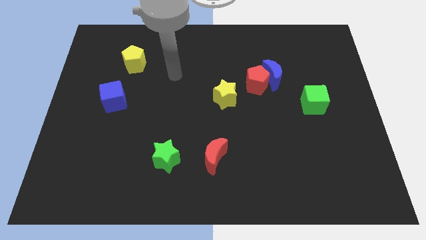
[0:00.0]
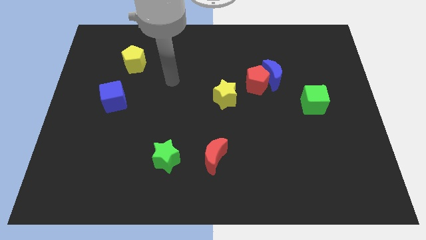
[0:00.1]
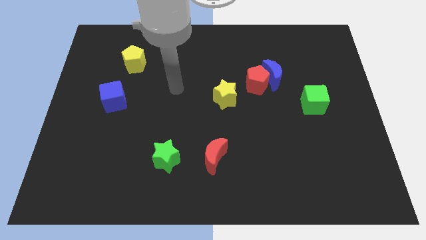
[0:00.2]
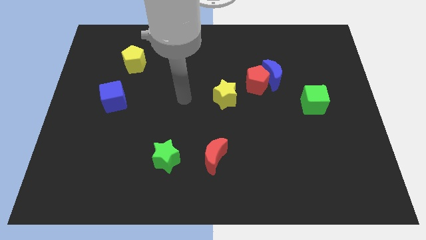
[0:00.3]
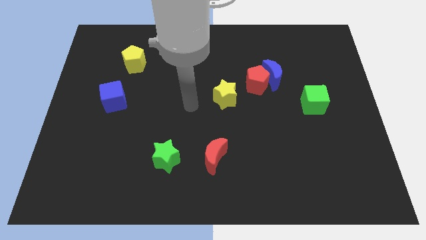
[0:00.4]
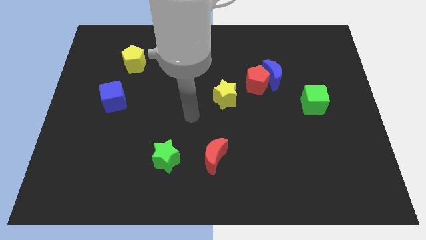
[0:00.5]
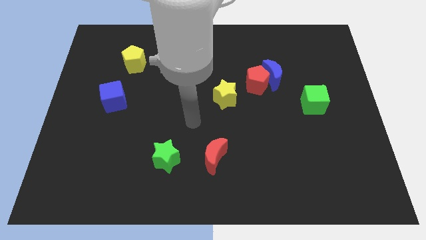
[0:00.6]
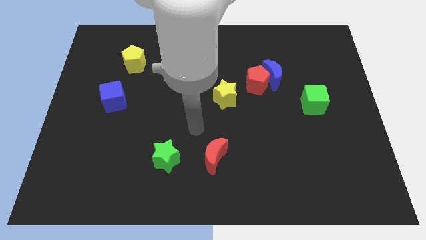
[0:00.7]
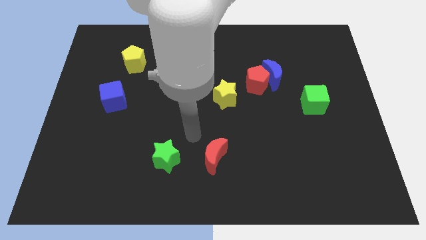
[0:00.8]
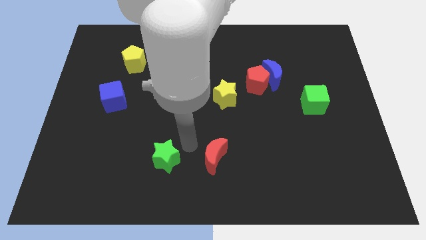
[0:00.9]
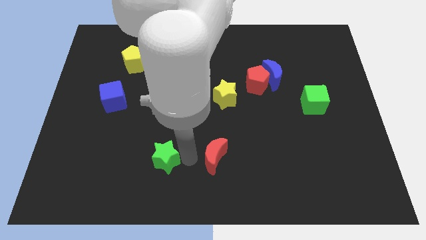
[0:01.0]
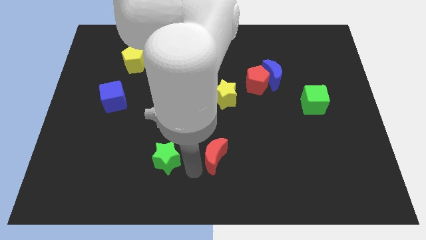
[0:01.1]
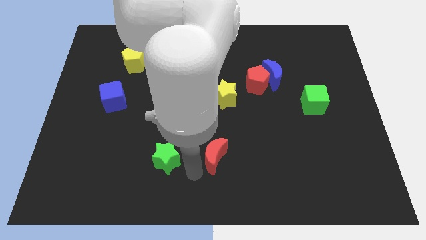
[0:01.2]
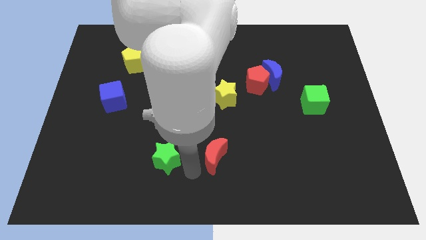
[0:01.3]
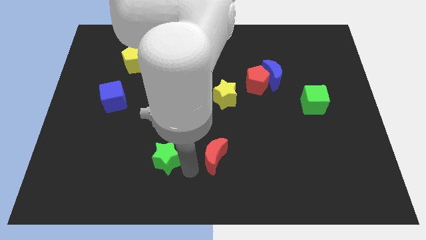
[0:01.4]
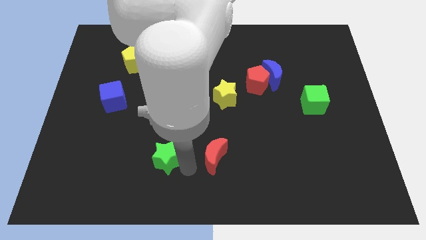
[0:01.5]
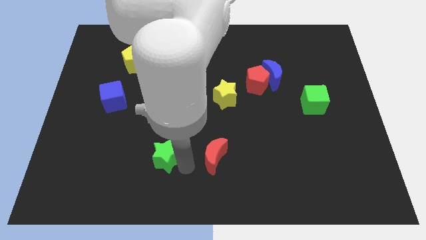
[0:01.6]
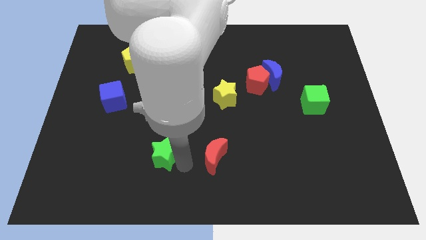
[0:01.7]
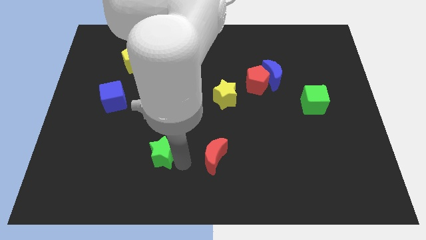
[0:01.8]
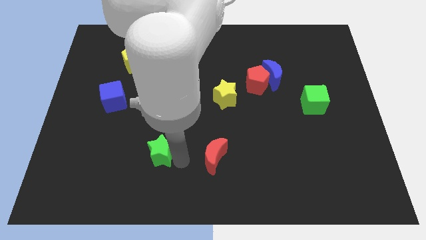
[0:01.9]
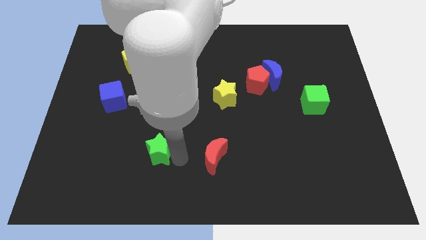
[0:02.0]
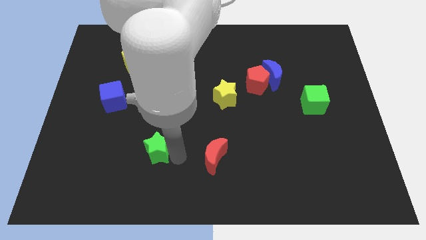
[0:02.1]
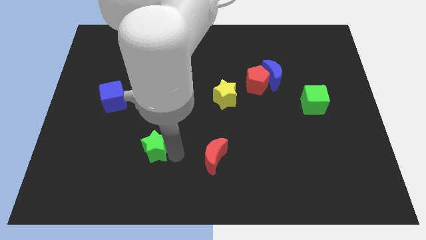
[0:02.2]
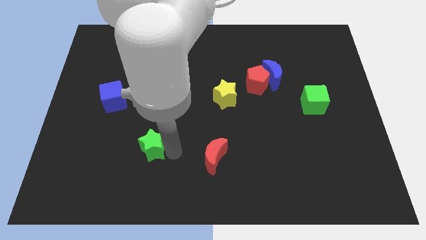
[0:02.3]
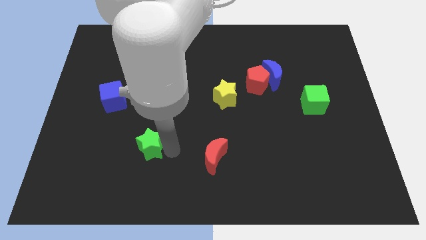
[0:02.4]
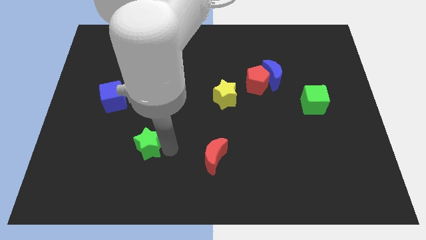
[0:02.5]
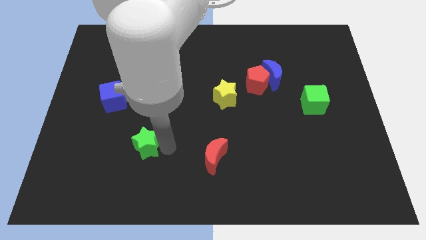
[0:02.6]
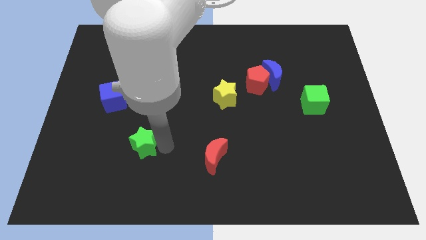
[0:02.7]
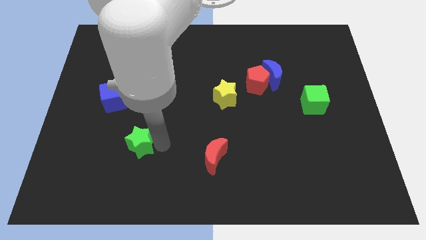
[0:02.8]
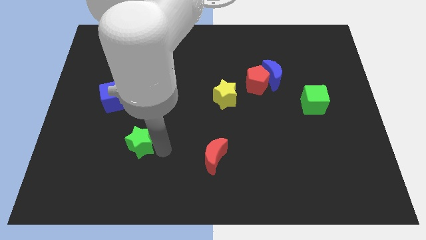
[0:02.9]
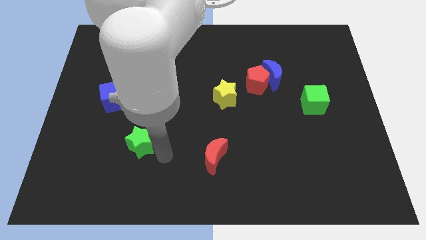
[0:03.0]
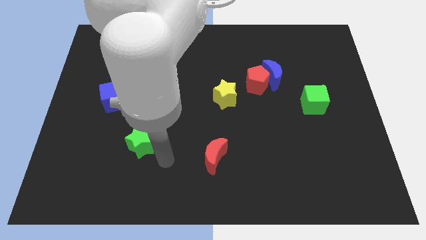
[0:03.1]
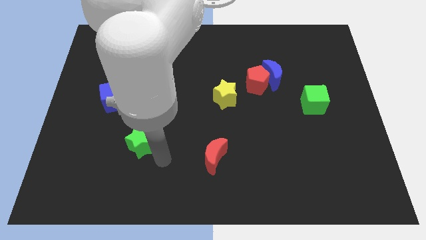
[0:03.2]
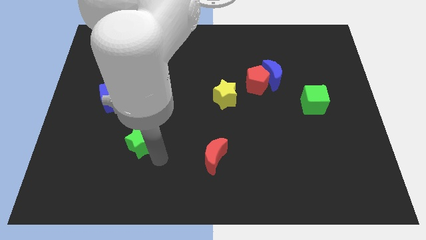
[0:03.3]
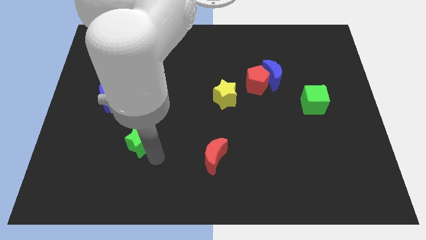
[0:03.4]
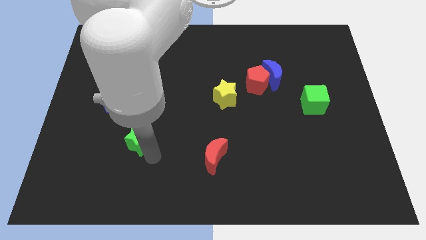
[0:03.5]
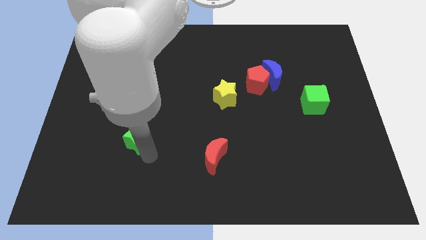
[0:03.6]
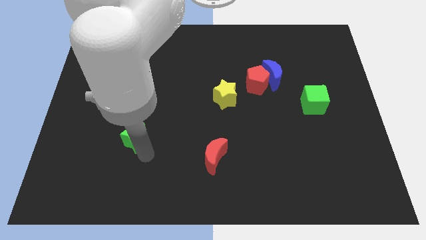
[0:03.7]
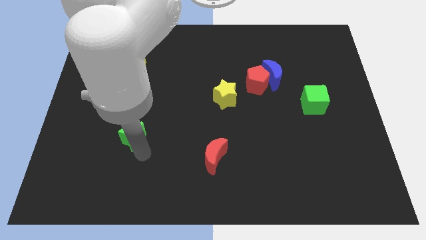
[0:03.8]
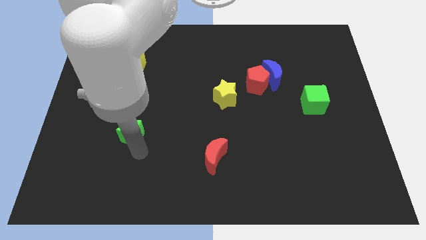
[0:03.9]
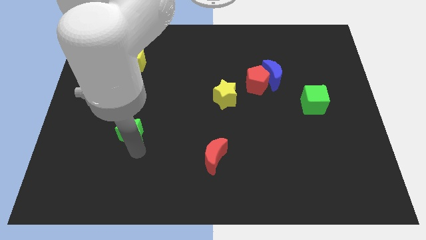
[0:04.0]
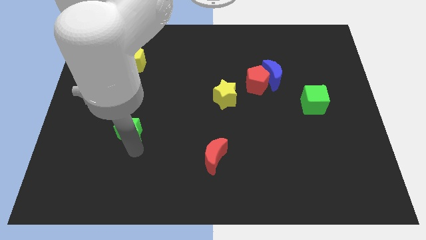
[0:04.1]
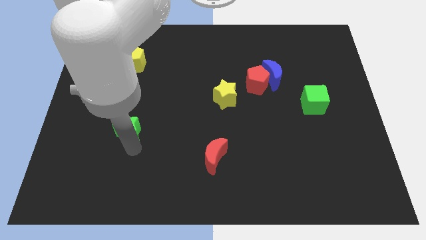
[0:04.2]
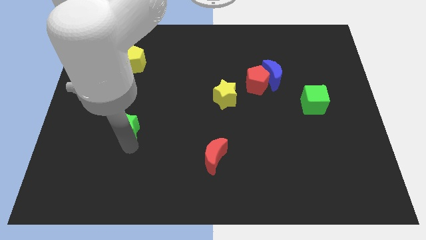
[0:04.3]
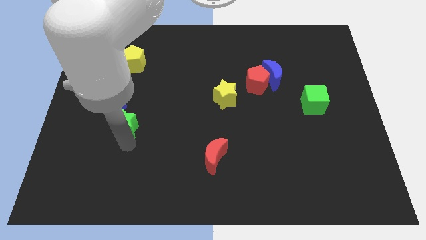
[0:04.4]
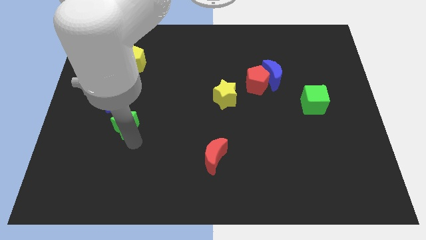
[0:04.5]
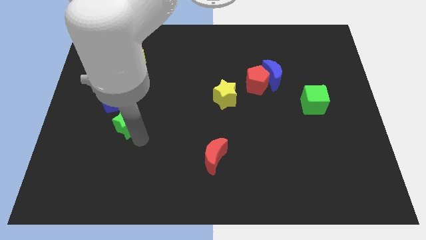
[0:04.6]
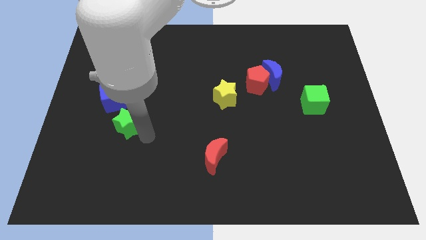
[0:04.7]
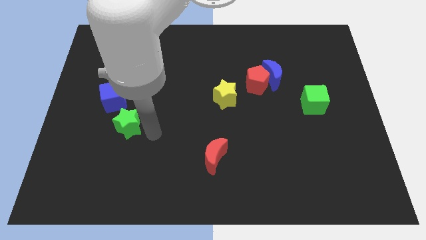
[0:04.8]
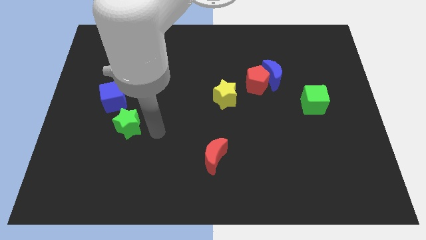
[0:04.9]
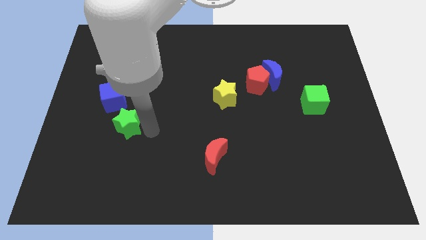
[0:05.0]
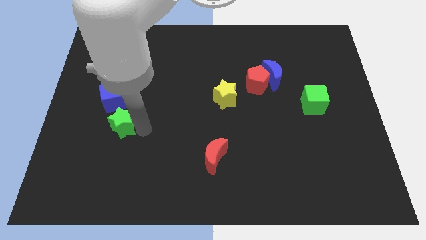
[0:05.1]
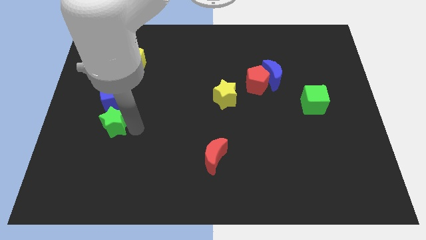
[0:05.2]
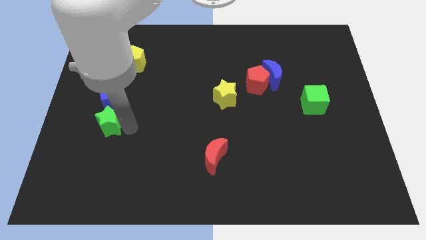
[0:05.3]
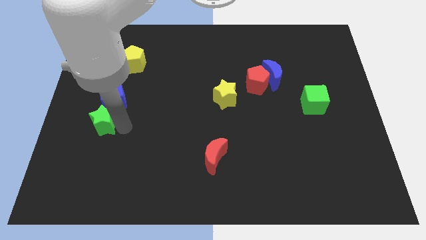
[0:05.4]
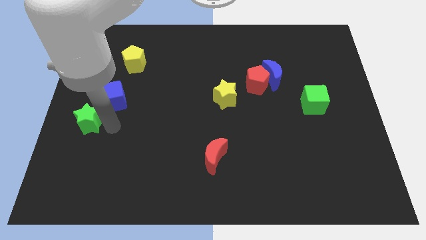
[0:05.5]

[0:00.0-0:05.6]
put the green star to the center left

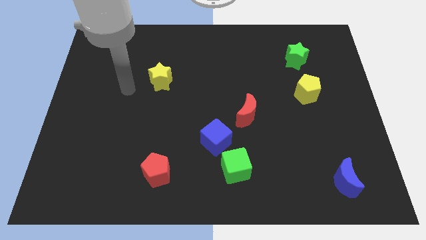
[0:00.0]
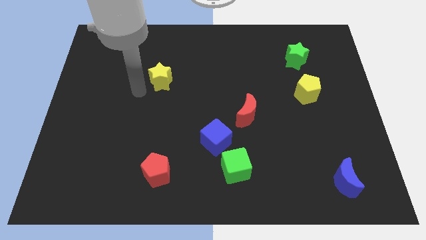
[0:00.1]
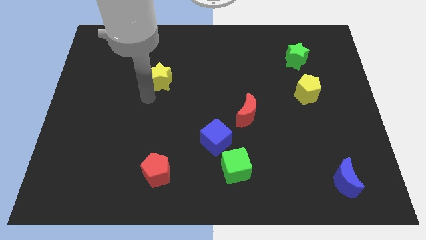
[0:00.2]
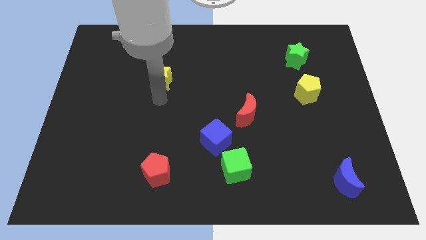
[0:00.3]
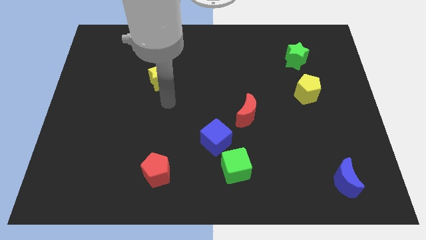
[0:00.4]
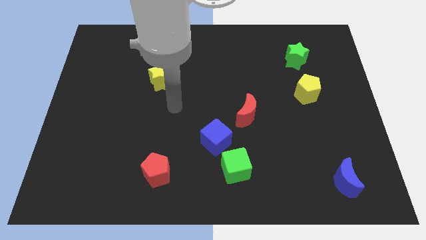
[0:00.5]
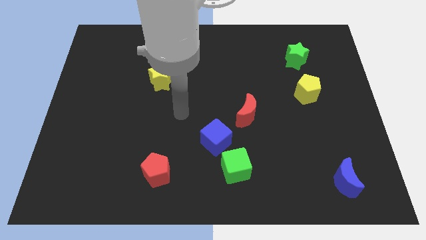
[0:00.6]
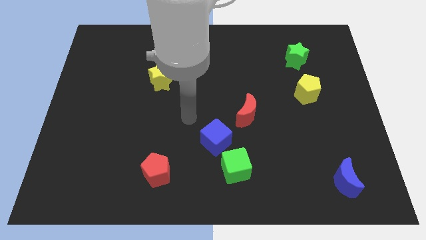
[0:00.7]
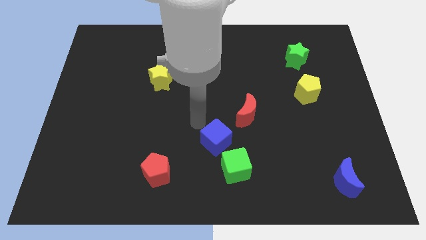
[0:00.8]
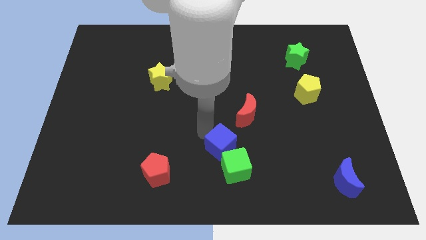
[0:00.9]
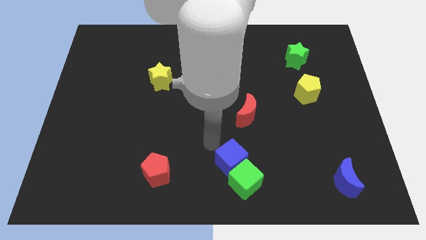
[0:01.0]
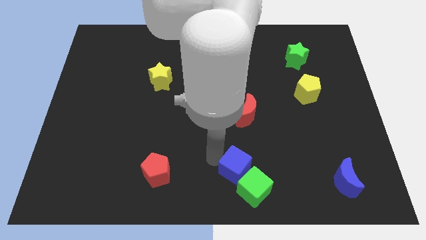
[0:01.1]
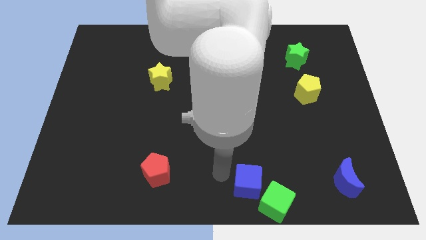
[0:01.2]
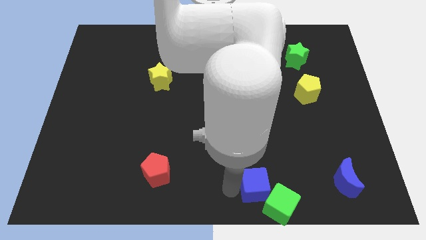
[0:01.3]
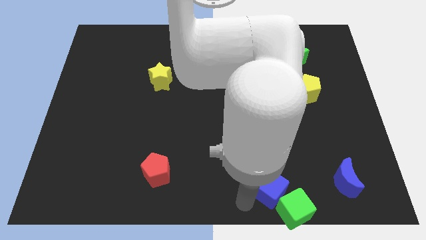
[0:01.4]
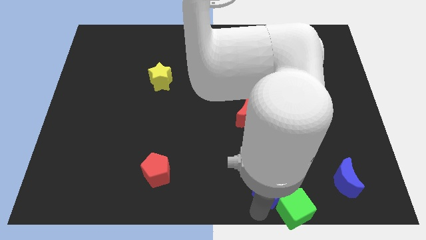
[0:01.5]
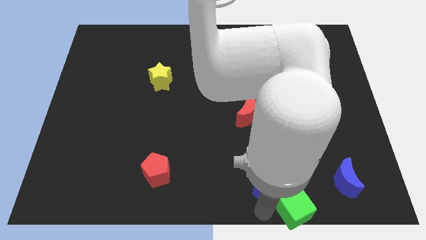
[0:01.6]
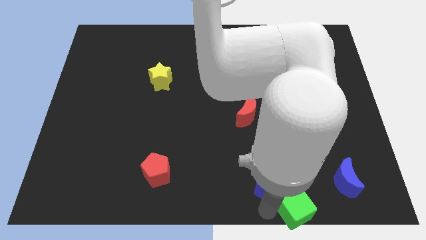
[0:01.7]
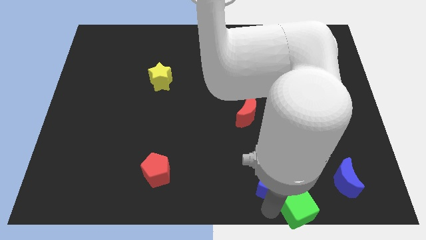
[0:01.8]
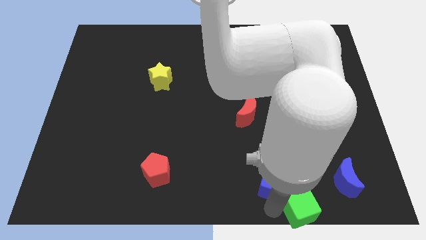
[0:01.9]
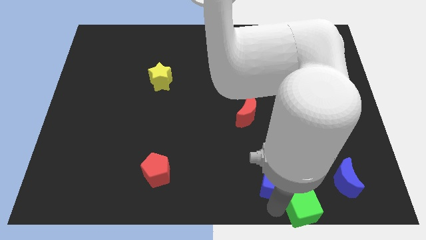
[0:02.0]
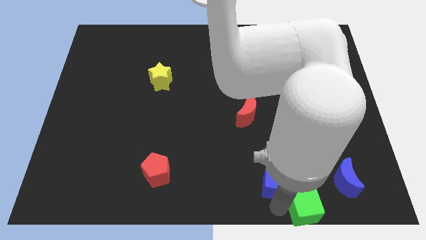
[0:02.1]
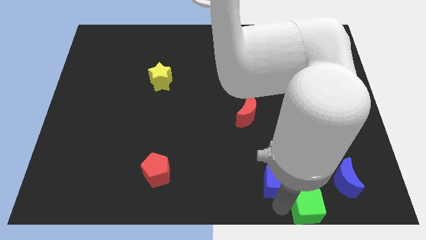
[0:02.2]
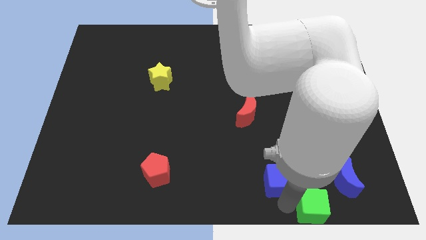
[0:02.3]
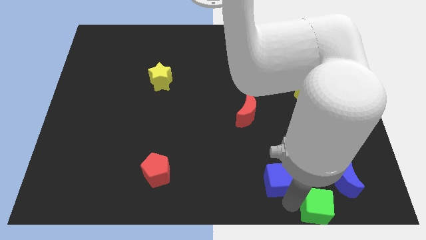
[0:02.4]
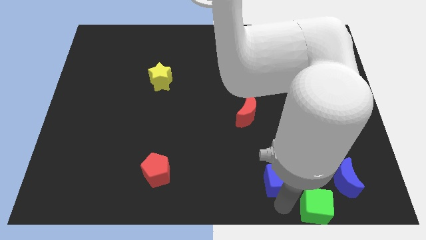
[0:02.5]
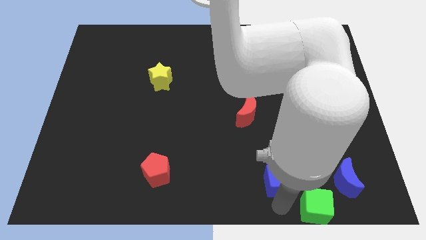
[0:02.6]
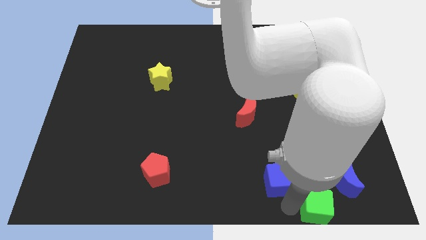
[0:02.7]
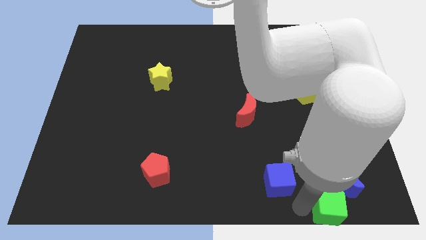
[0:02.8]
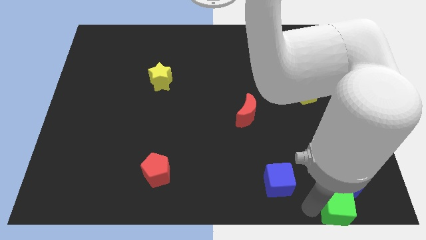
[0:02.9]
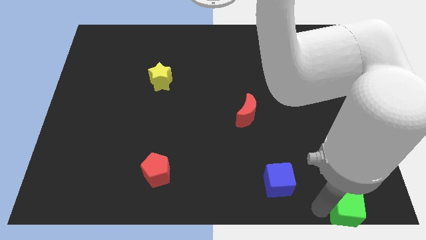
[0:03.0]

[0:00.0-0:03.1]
move the green cube to the bottom right corner
